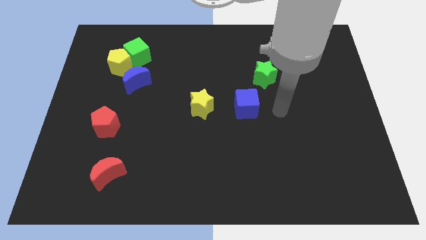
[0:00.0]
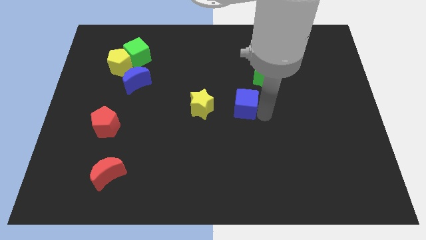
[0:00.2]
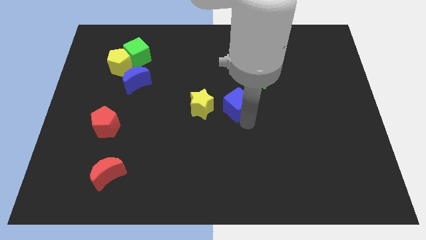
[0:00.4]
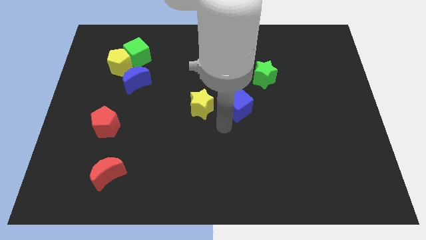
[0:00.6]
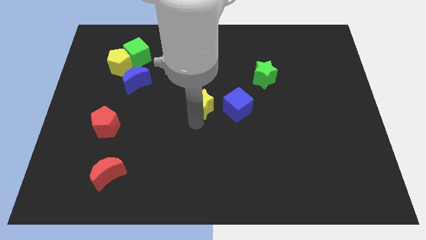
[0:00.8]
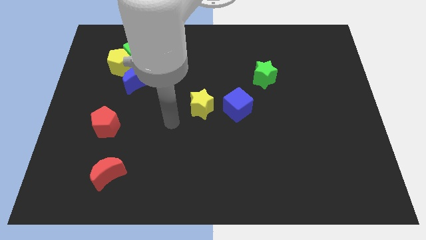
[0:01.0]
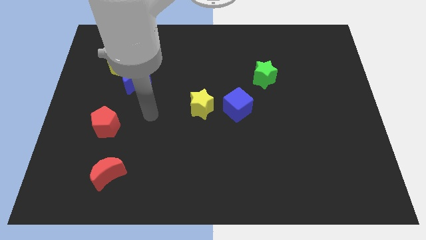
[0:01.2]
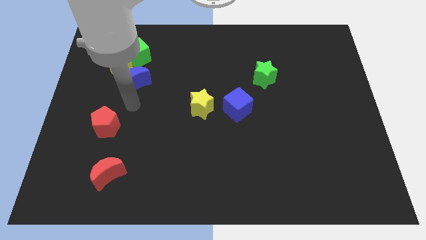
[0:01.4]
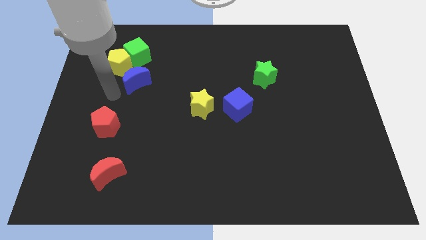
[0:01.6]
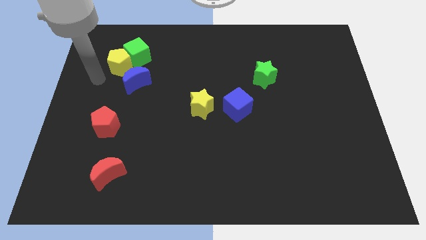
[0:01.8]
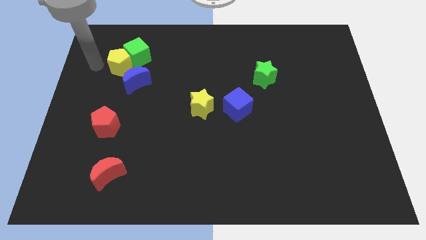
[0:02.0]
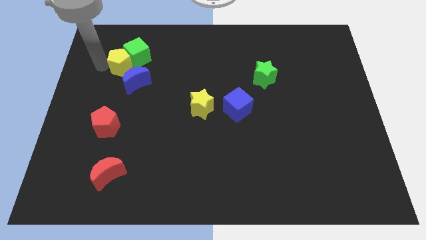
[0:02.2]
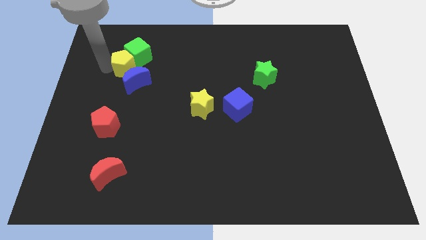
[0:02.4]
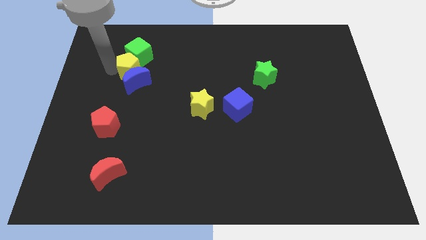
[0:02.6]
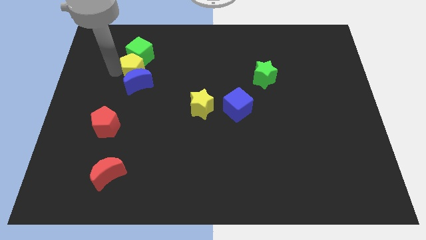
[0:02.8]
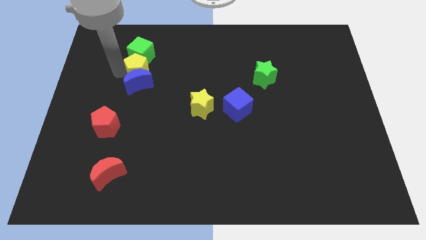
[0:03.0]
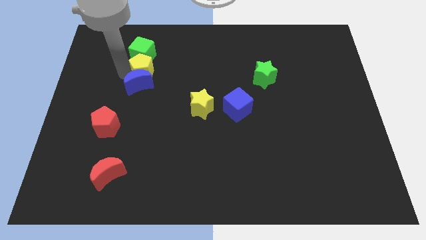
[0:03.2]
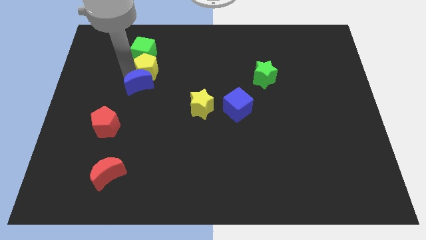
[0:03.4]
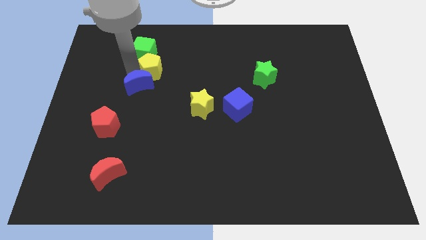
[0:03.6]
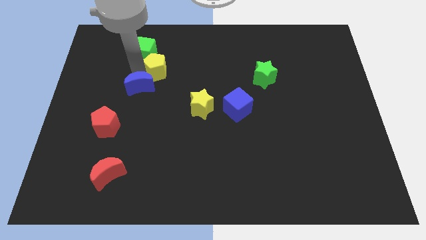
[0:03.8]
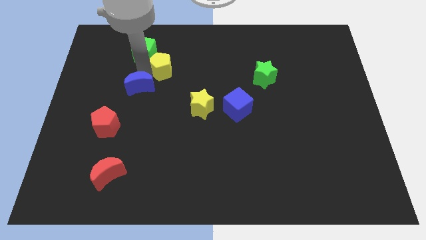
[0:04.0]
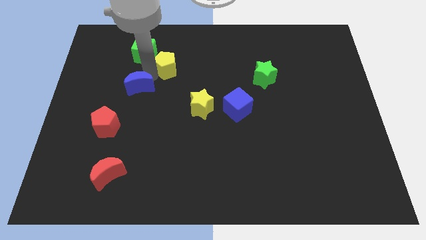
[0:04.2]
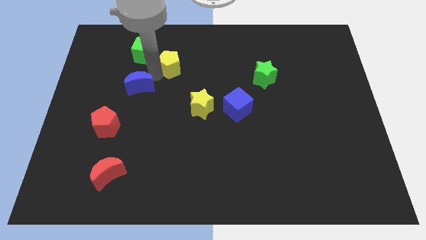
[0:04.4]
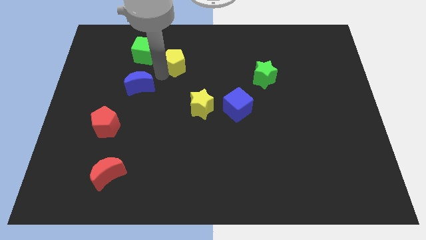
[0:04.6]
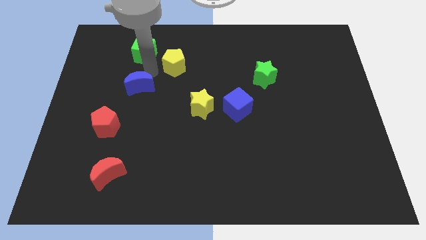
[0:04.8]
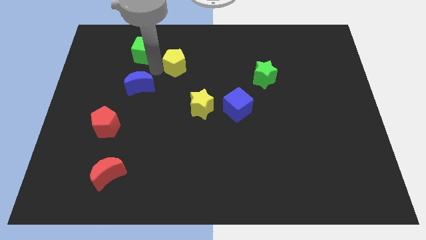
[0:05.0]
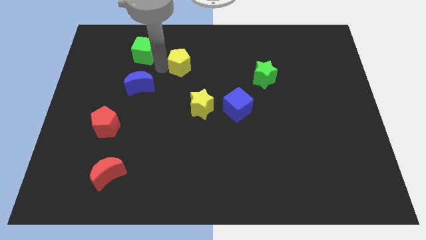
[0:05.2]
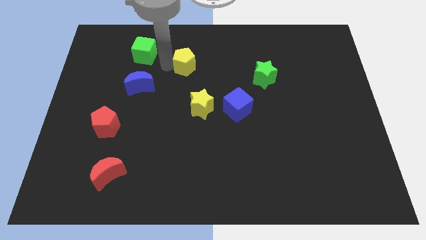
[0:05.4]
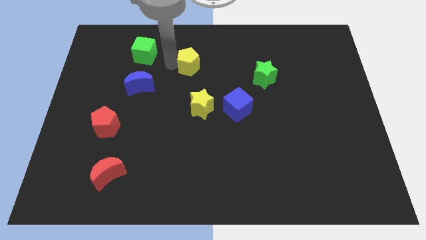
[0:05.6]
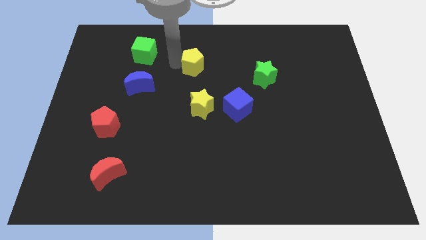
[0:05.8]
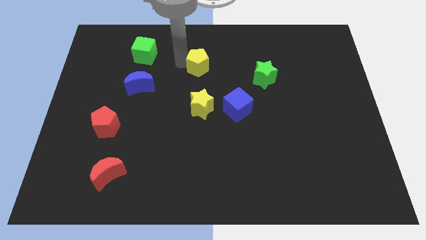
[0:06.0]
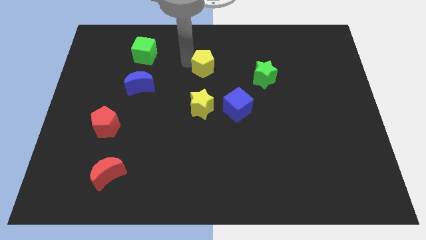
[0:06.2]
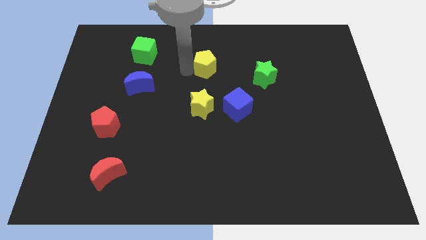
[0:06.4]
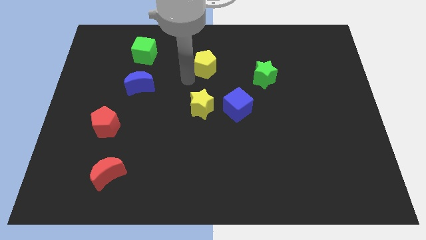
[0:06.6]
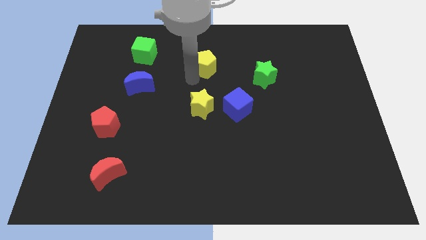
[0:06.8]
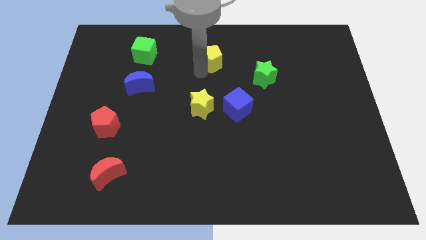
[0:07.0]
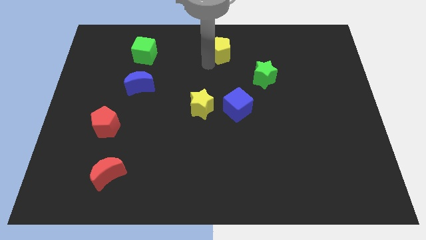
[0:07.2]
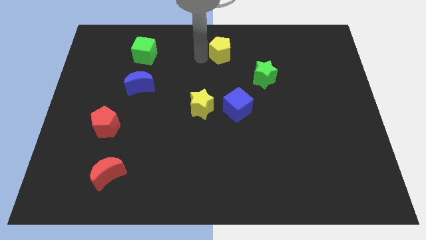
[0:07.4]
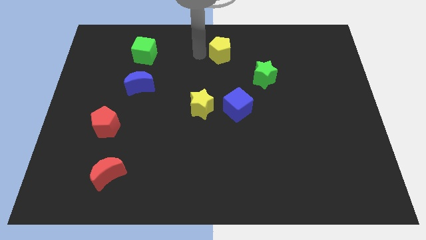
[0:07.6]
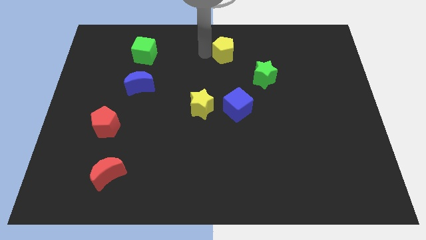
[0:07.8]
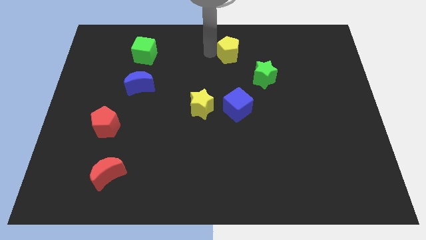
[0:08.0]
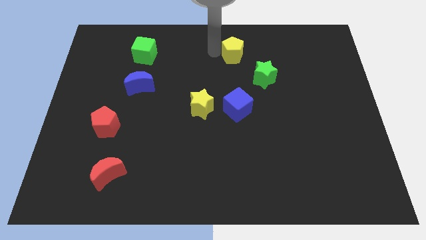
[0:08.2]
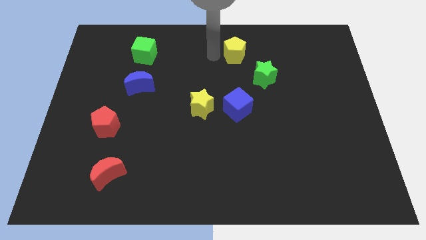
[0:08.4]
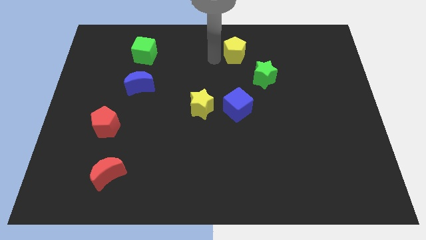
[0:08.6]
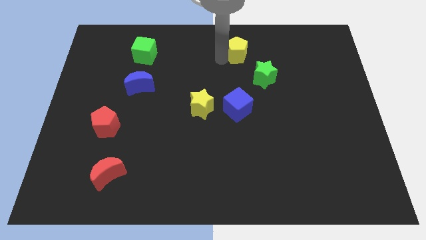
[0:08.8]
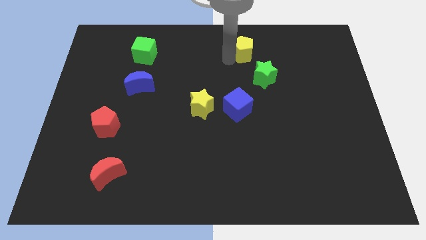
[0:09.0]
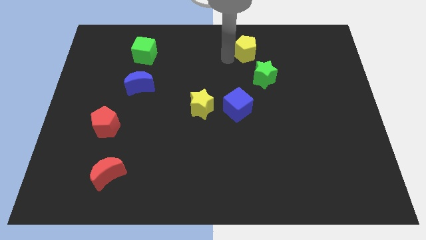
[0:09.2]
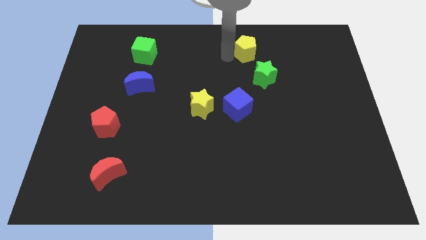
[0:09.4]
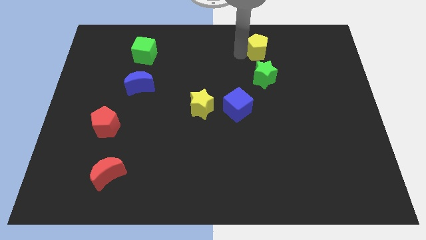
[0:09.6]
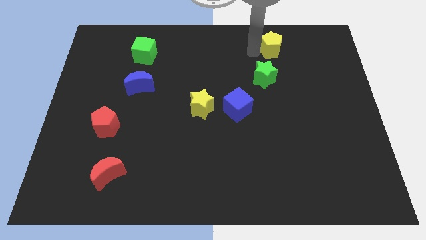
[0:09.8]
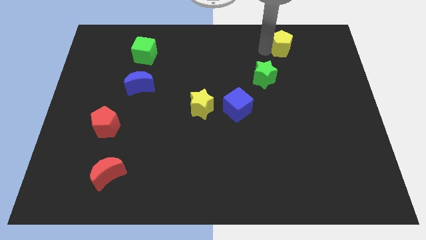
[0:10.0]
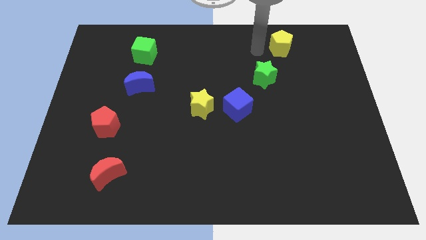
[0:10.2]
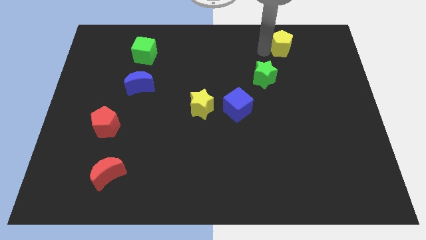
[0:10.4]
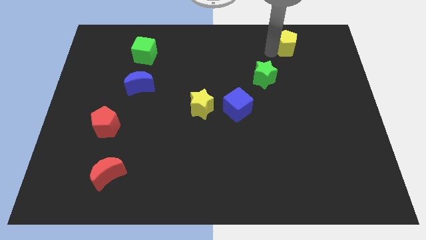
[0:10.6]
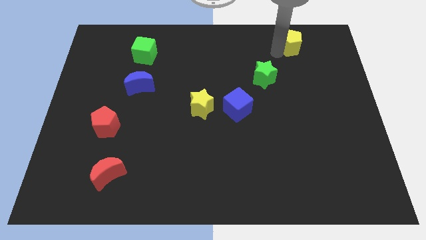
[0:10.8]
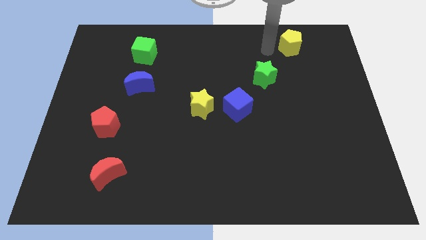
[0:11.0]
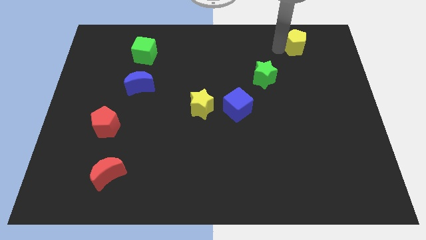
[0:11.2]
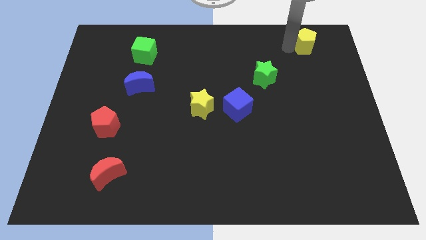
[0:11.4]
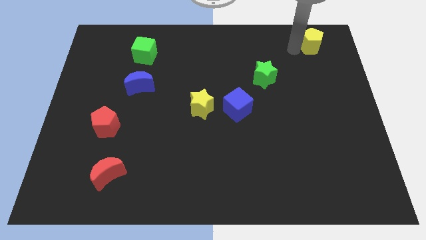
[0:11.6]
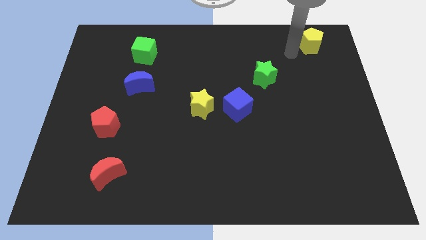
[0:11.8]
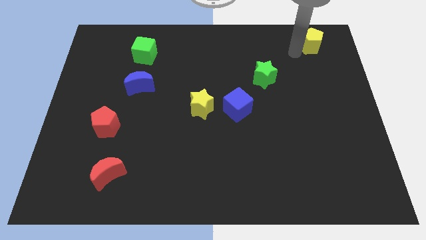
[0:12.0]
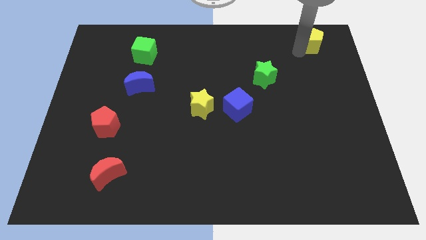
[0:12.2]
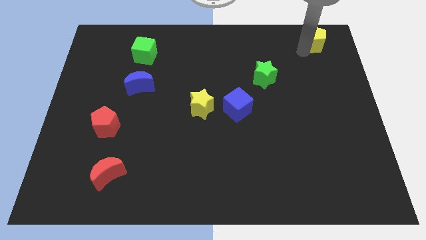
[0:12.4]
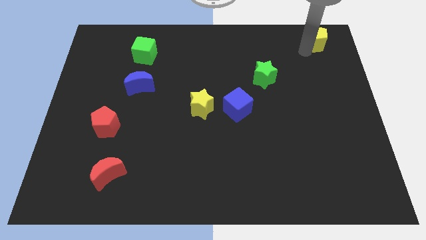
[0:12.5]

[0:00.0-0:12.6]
put the yellow pentagon to the top right of the board

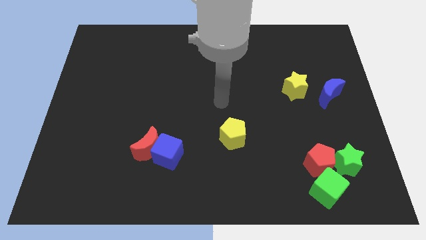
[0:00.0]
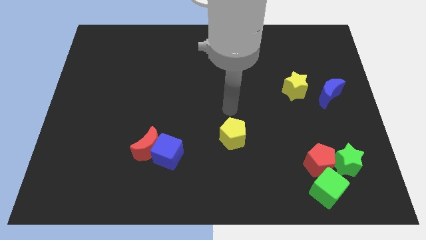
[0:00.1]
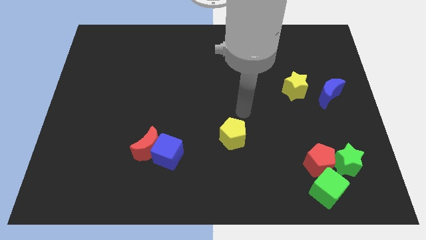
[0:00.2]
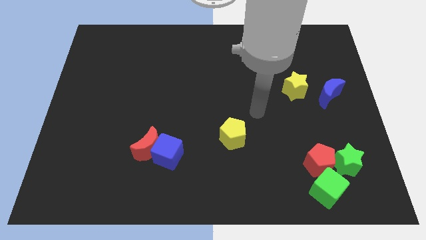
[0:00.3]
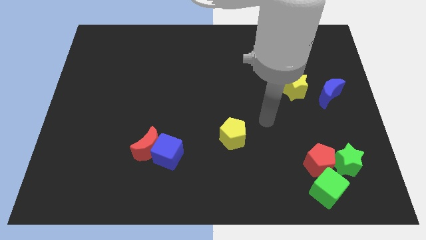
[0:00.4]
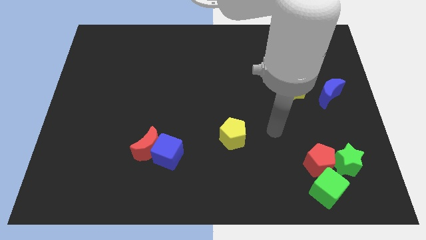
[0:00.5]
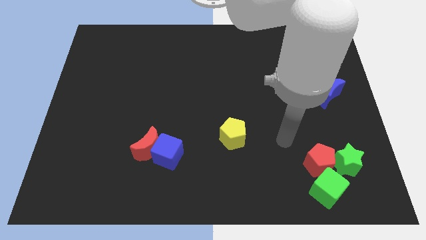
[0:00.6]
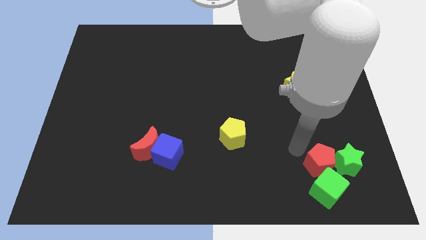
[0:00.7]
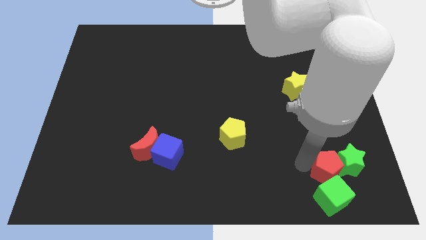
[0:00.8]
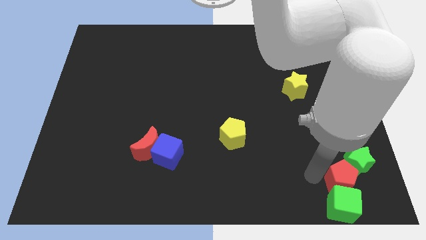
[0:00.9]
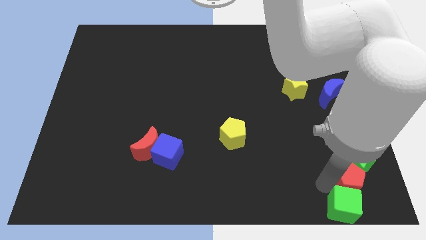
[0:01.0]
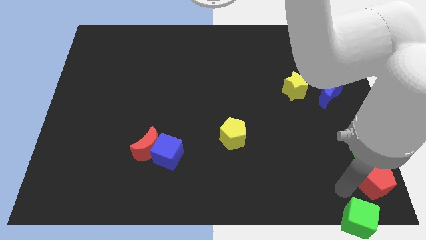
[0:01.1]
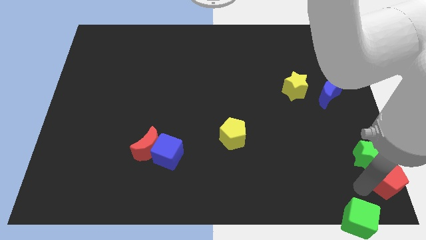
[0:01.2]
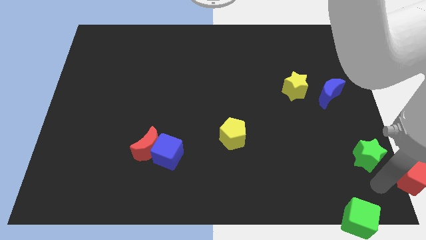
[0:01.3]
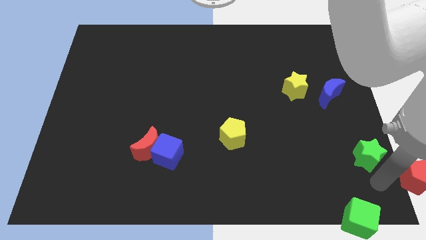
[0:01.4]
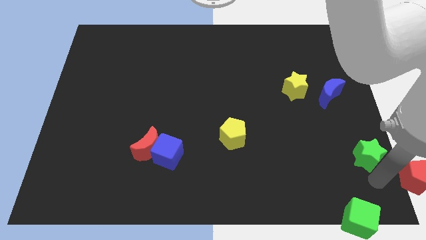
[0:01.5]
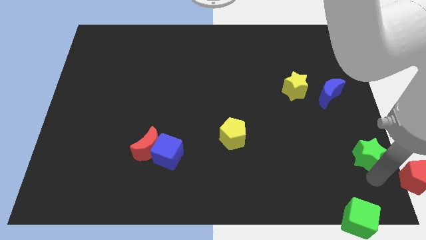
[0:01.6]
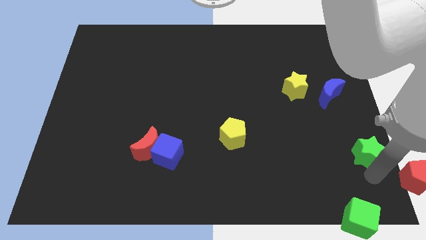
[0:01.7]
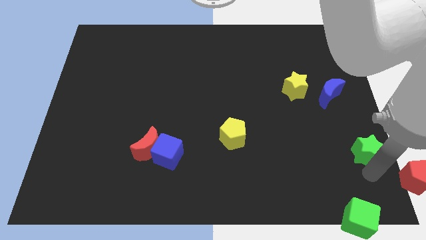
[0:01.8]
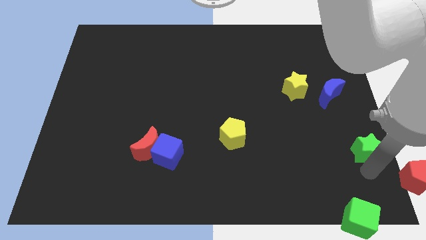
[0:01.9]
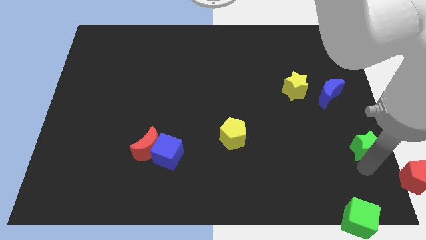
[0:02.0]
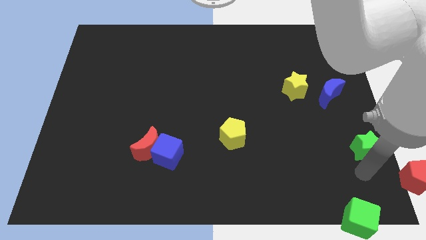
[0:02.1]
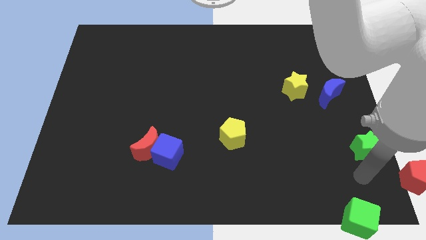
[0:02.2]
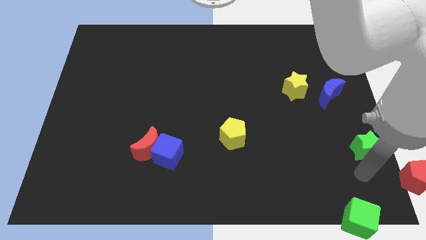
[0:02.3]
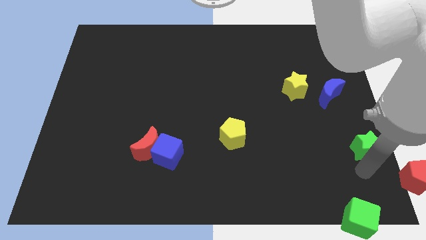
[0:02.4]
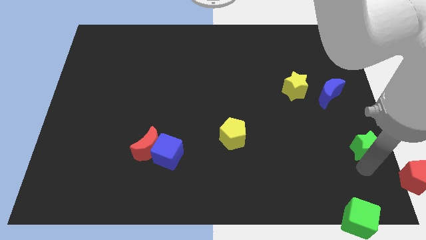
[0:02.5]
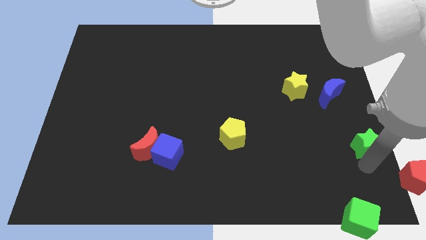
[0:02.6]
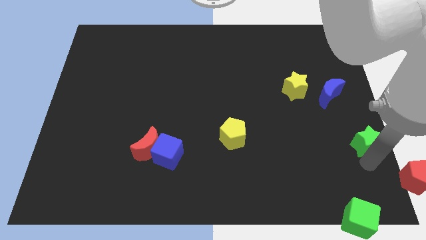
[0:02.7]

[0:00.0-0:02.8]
move the green star to the right side
